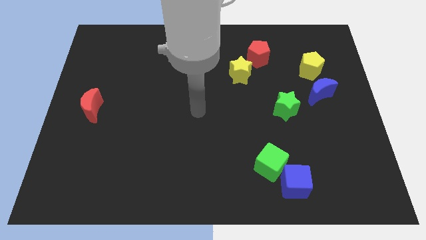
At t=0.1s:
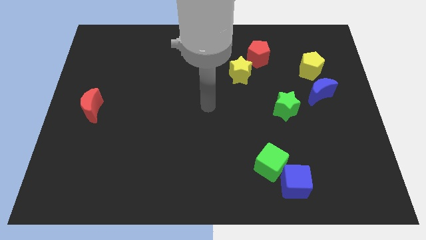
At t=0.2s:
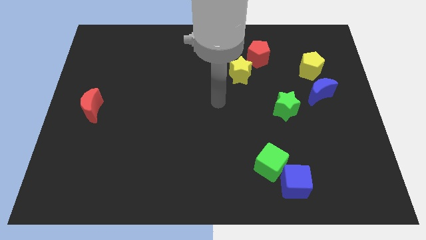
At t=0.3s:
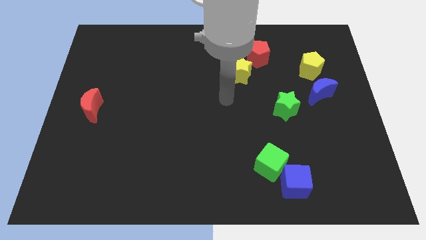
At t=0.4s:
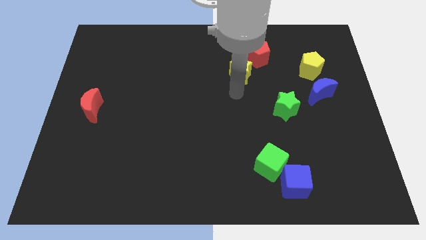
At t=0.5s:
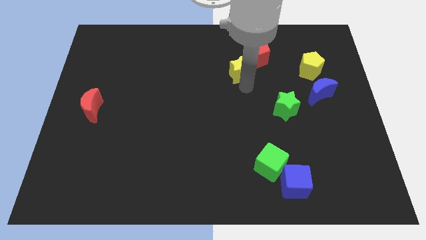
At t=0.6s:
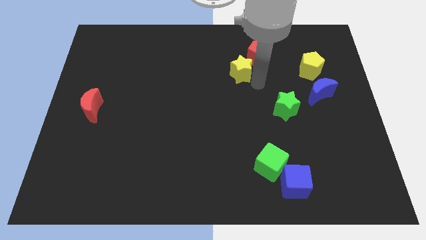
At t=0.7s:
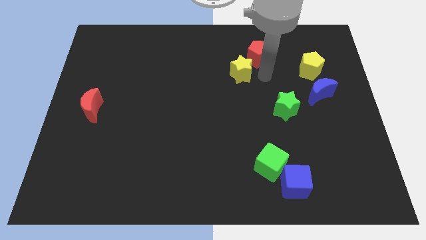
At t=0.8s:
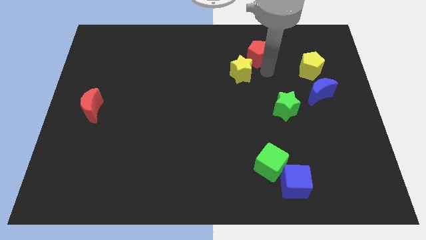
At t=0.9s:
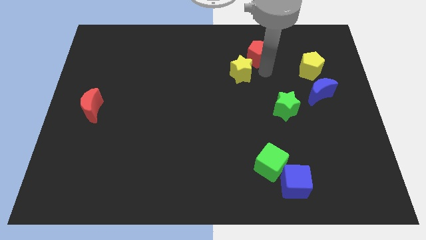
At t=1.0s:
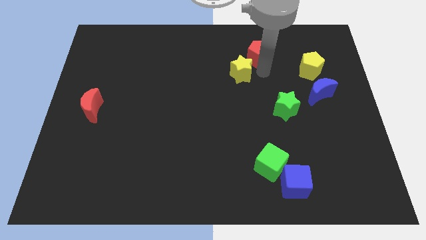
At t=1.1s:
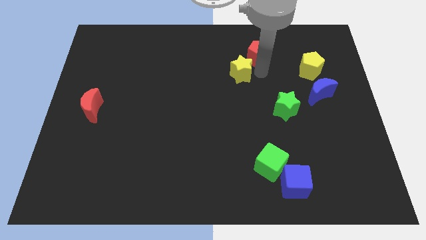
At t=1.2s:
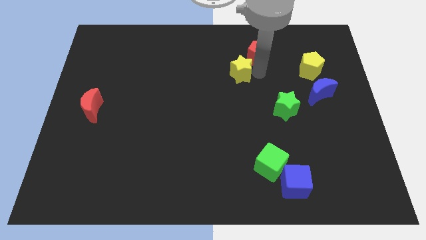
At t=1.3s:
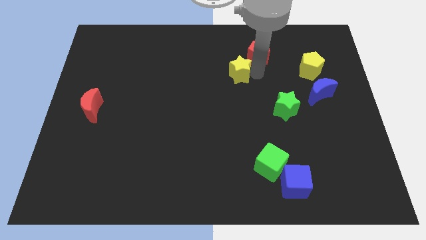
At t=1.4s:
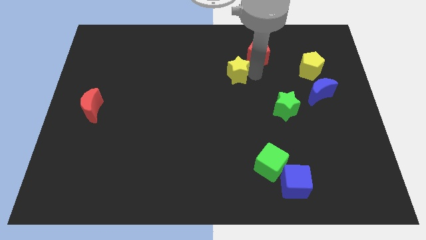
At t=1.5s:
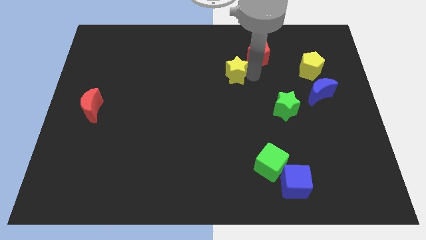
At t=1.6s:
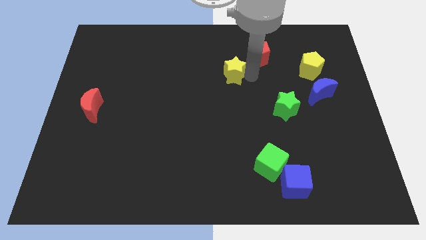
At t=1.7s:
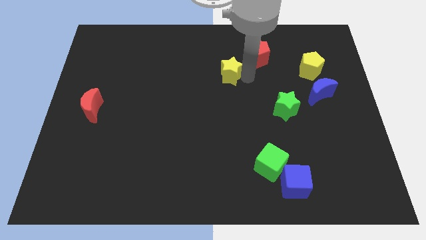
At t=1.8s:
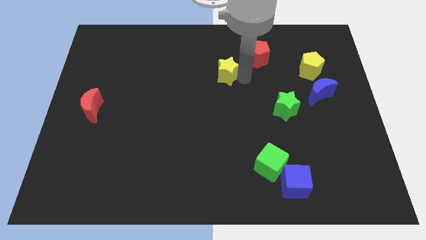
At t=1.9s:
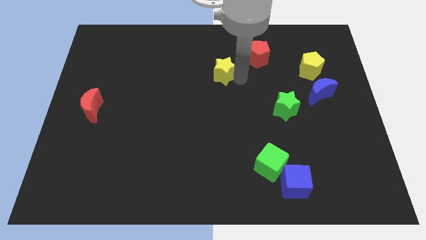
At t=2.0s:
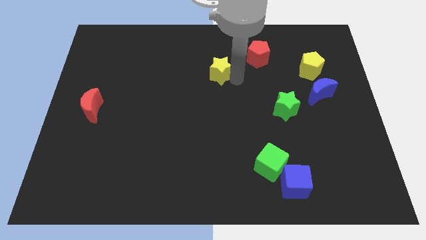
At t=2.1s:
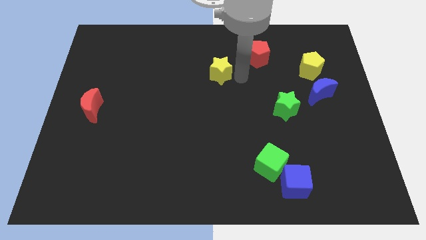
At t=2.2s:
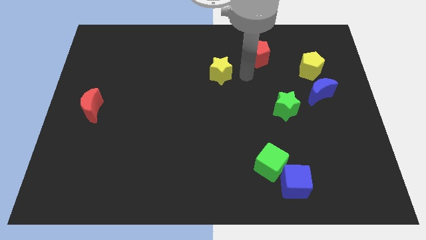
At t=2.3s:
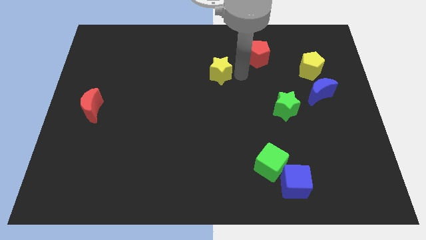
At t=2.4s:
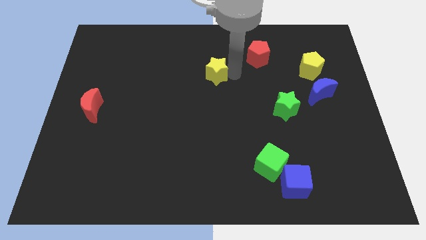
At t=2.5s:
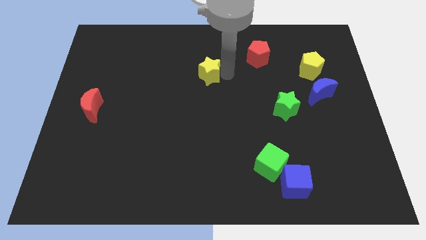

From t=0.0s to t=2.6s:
slide the yellow star left a little

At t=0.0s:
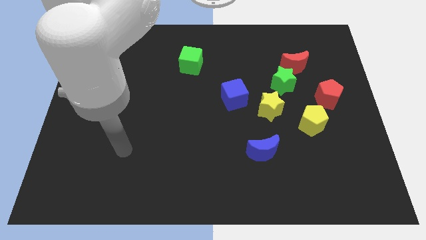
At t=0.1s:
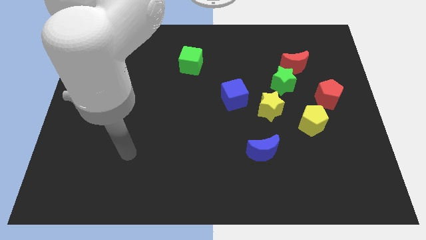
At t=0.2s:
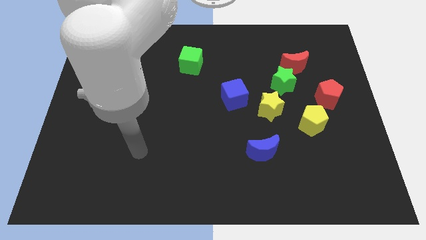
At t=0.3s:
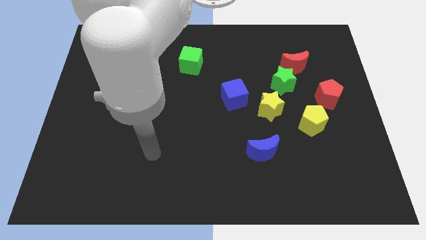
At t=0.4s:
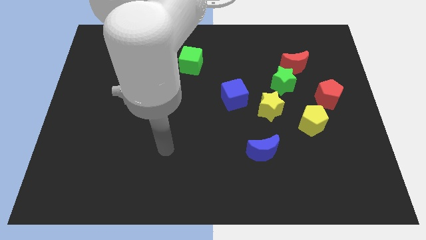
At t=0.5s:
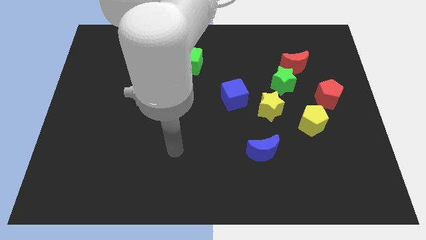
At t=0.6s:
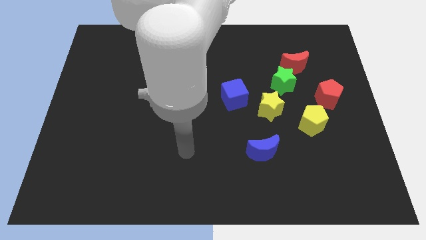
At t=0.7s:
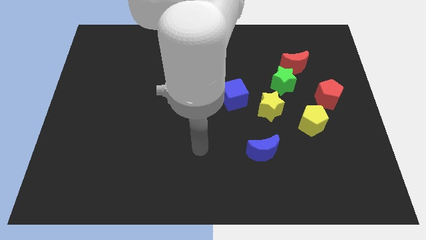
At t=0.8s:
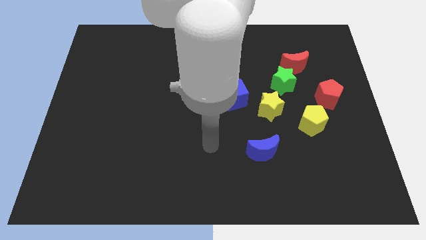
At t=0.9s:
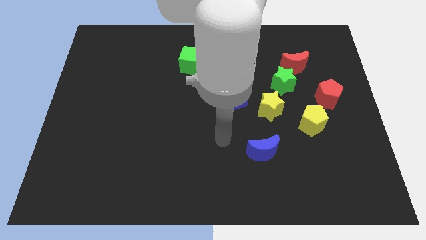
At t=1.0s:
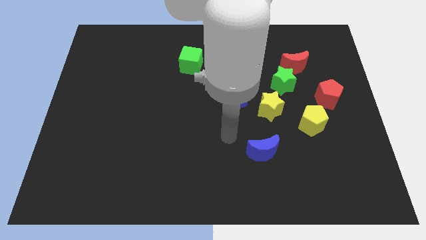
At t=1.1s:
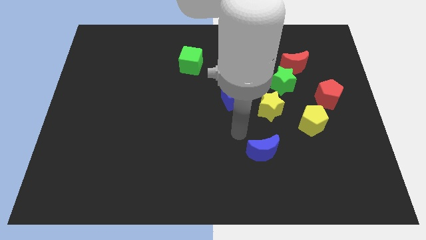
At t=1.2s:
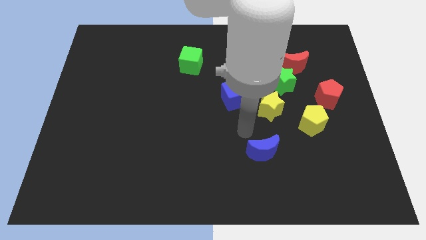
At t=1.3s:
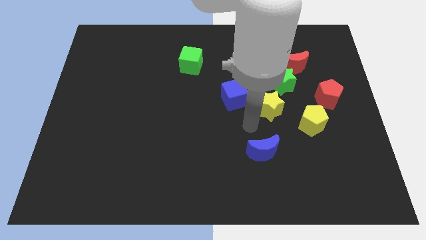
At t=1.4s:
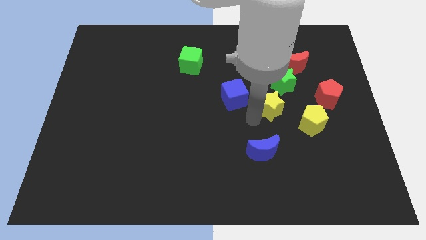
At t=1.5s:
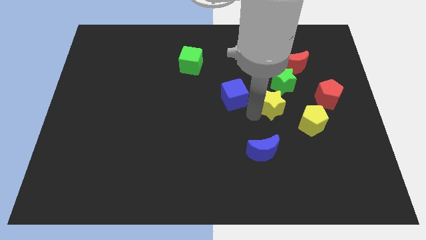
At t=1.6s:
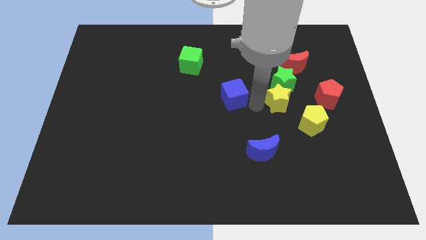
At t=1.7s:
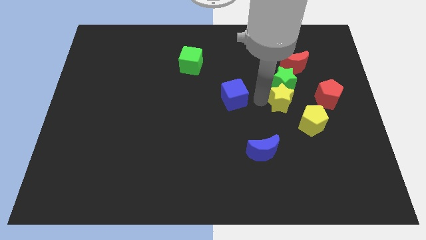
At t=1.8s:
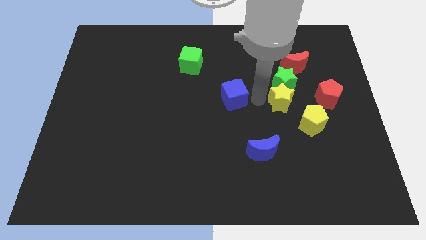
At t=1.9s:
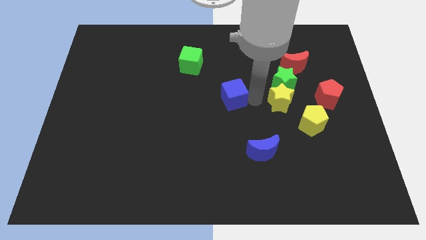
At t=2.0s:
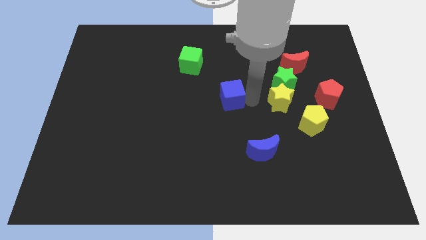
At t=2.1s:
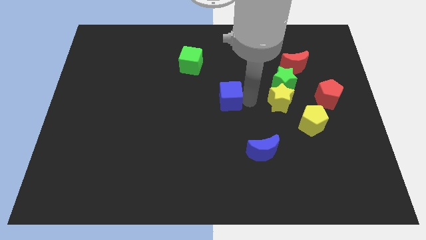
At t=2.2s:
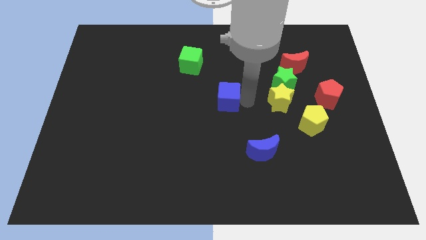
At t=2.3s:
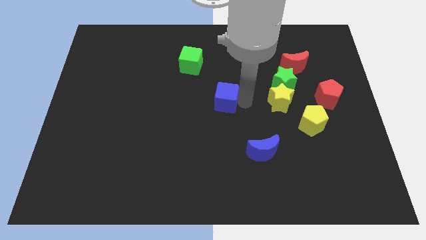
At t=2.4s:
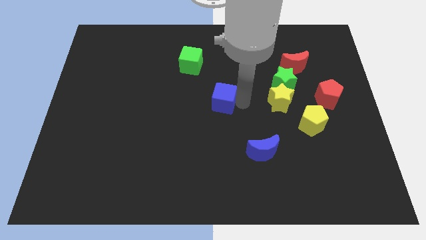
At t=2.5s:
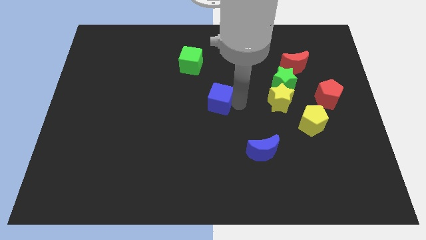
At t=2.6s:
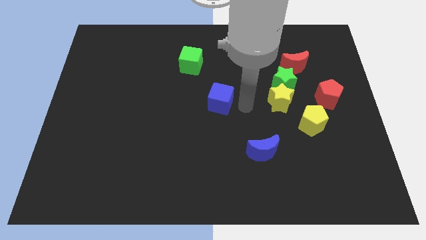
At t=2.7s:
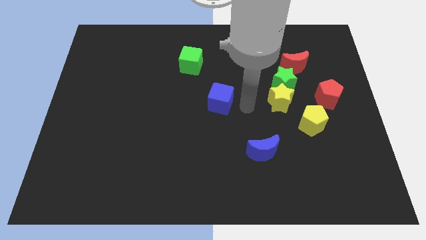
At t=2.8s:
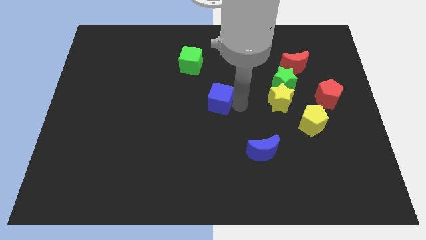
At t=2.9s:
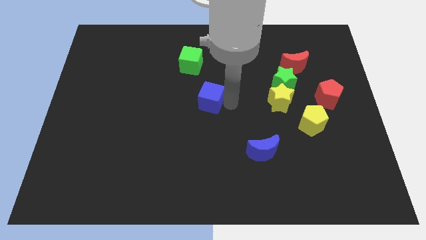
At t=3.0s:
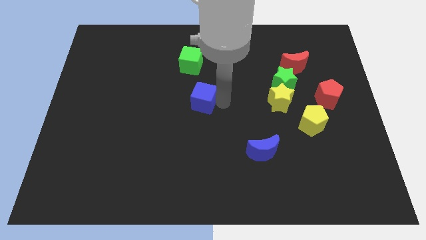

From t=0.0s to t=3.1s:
move the blue cube slightly left

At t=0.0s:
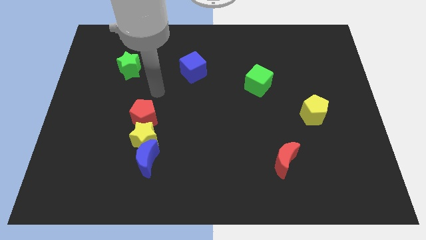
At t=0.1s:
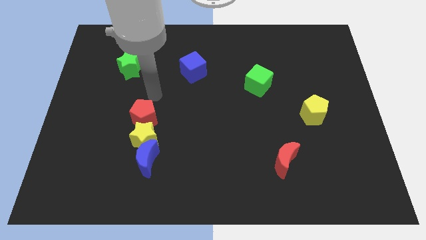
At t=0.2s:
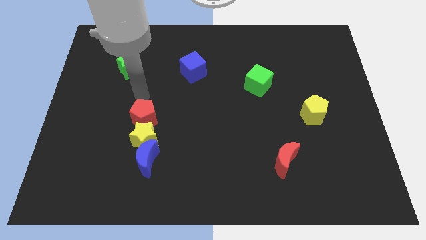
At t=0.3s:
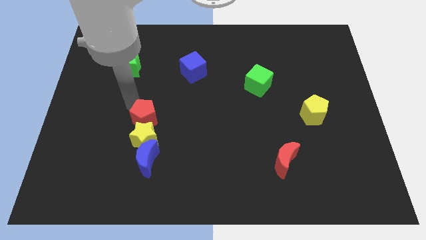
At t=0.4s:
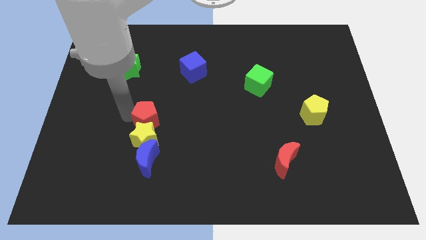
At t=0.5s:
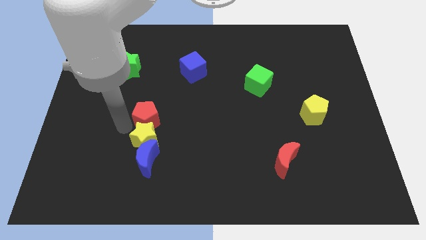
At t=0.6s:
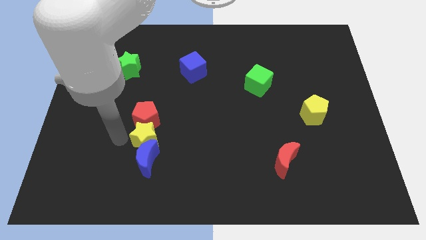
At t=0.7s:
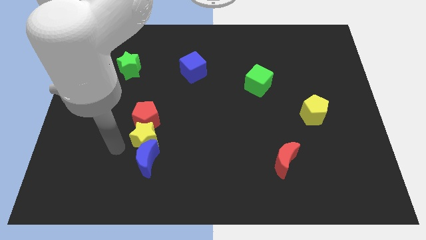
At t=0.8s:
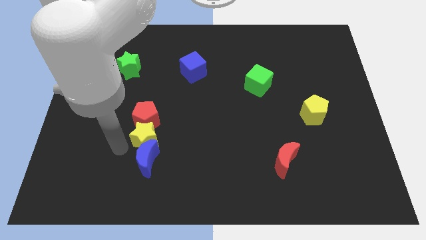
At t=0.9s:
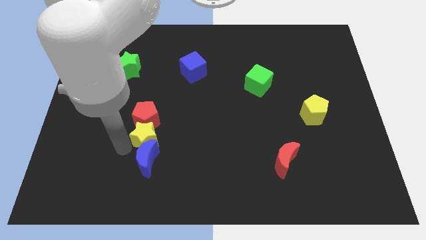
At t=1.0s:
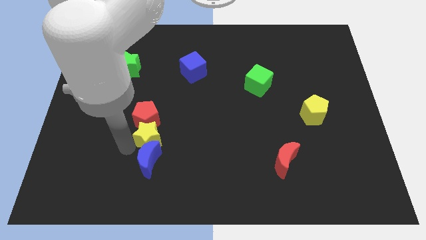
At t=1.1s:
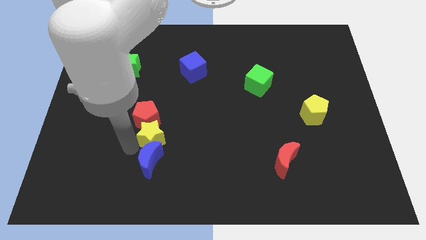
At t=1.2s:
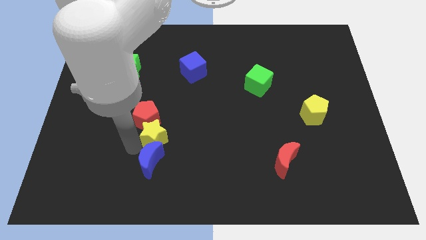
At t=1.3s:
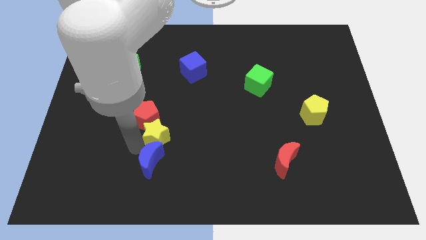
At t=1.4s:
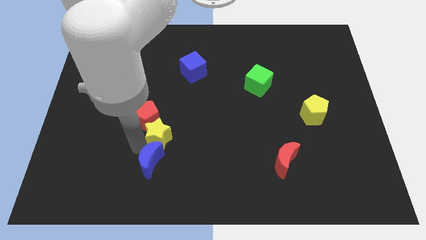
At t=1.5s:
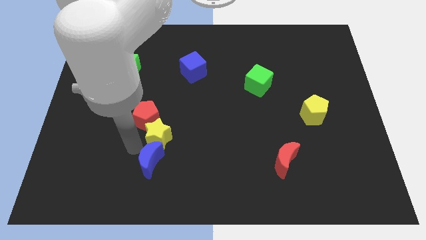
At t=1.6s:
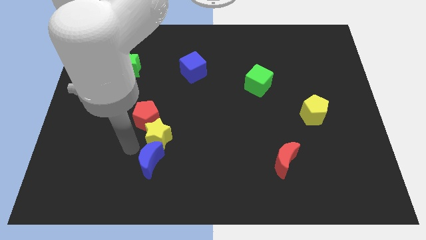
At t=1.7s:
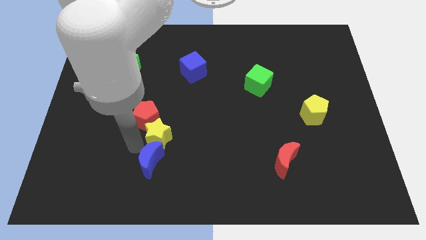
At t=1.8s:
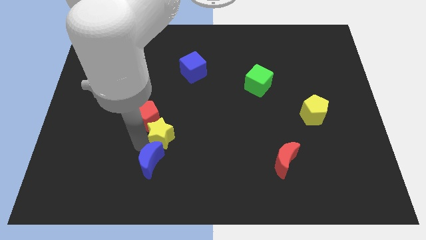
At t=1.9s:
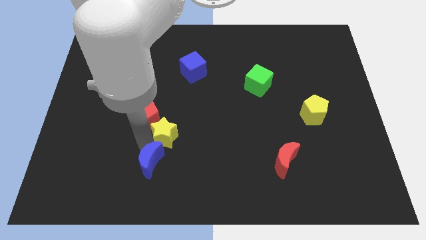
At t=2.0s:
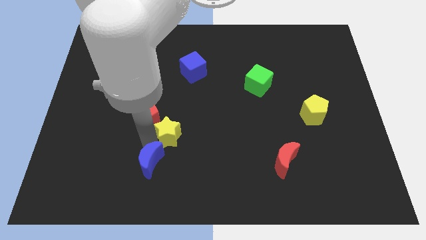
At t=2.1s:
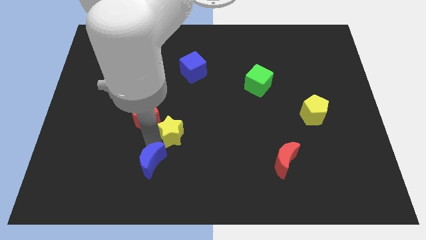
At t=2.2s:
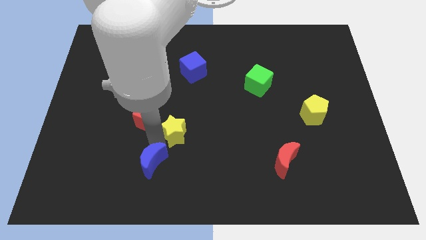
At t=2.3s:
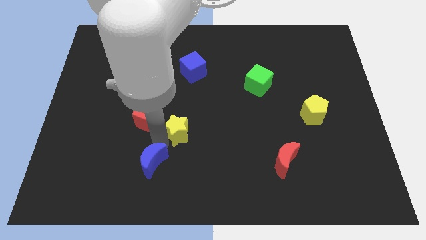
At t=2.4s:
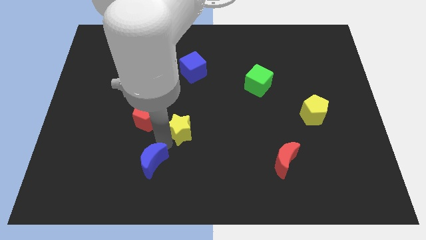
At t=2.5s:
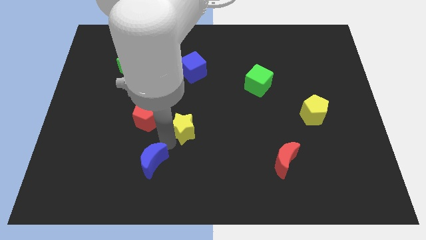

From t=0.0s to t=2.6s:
slightly move the yellow star up and to the right diagonally
